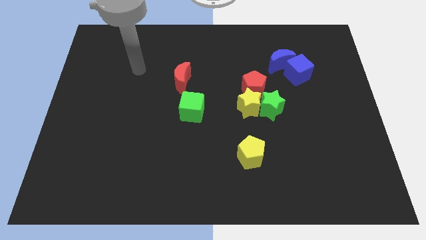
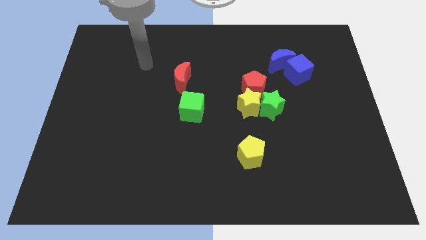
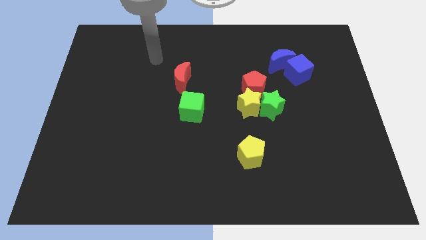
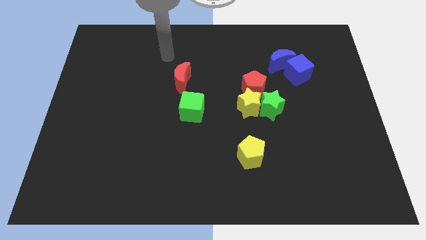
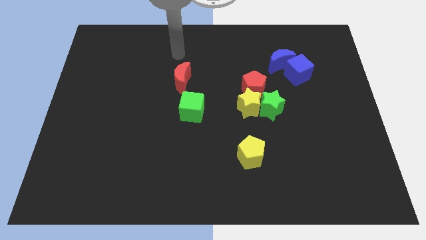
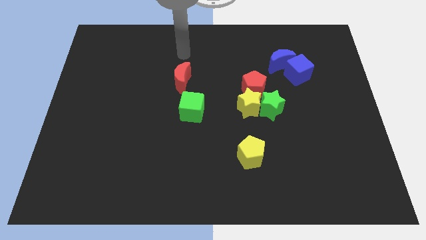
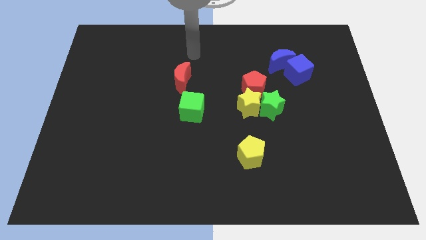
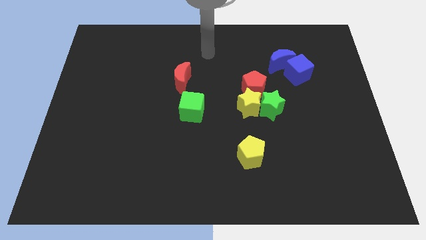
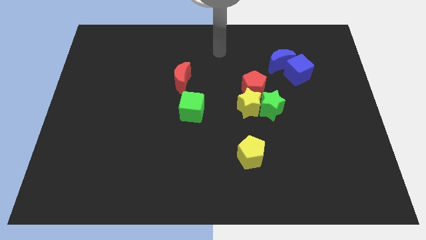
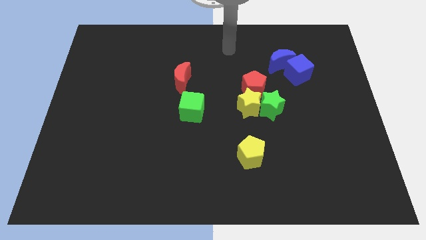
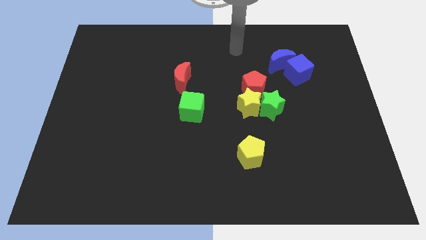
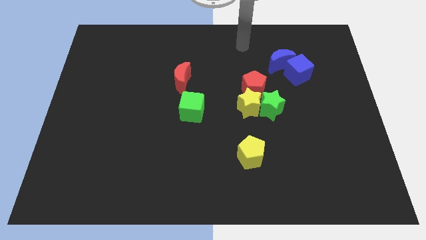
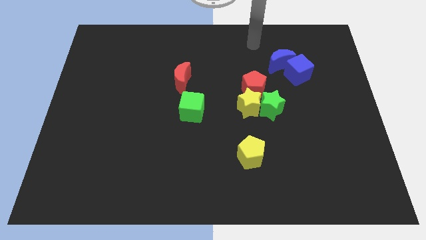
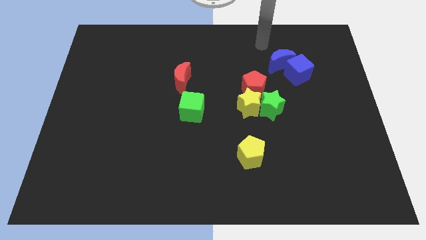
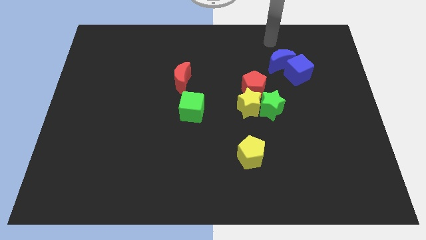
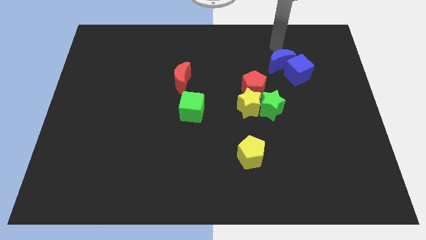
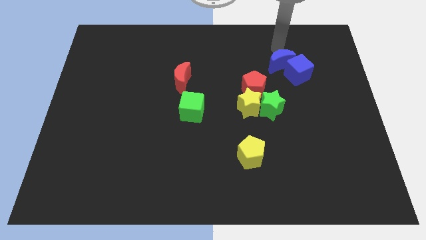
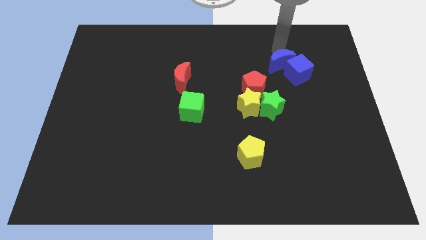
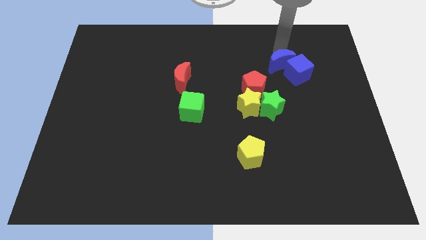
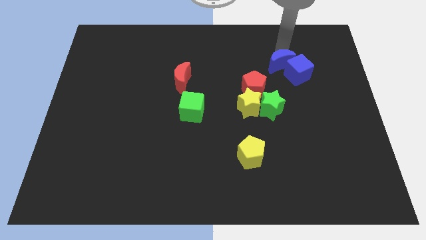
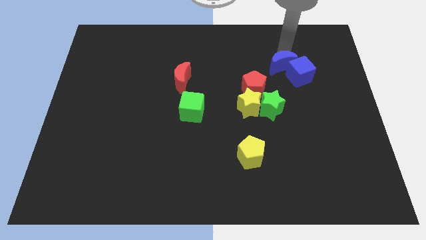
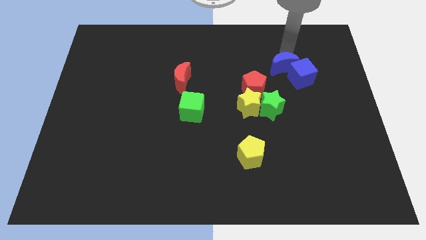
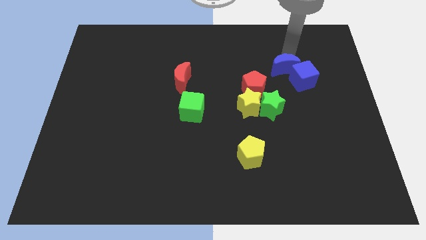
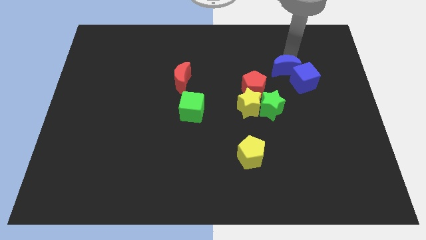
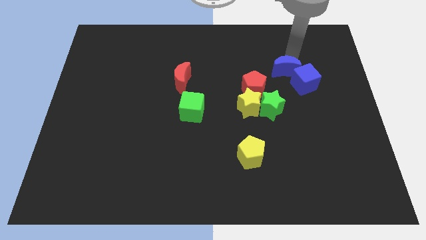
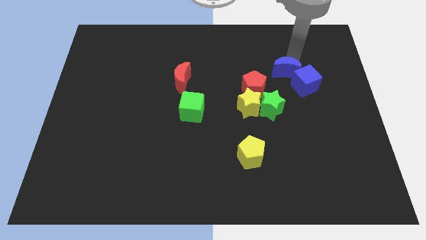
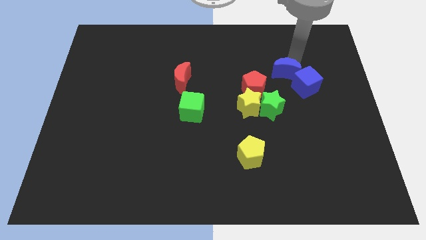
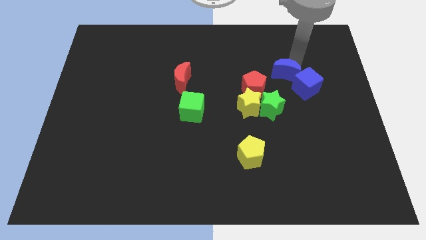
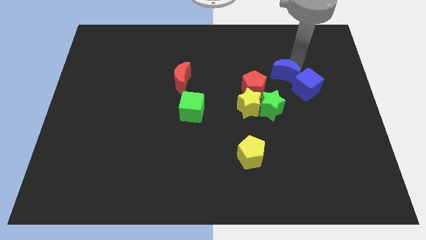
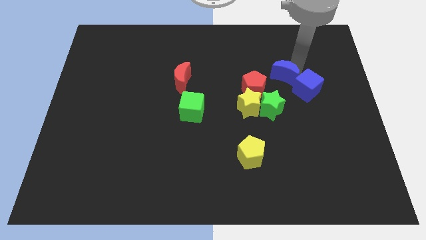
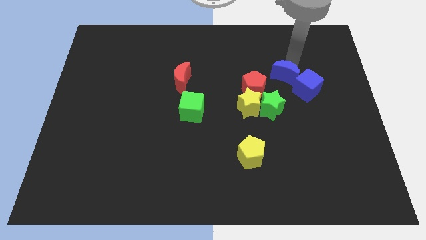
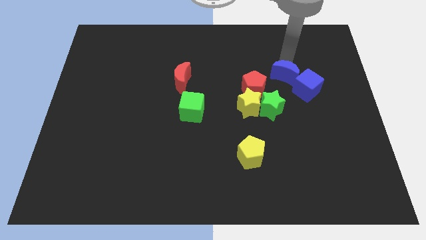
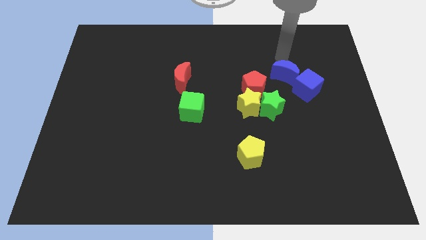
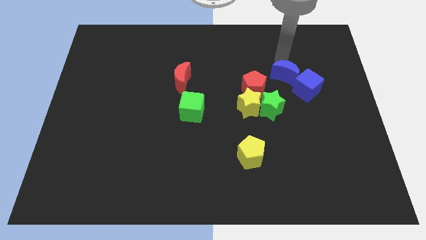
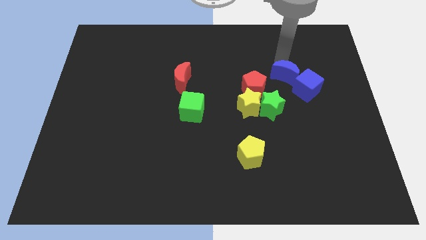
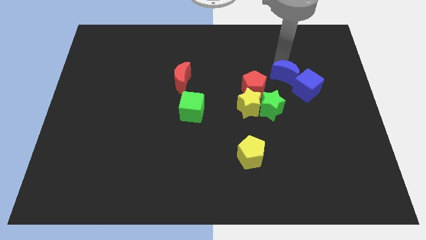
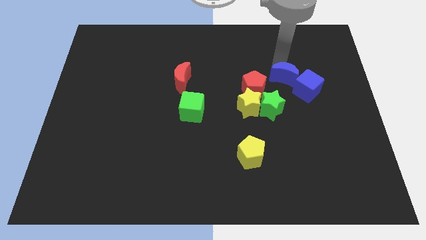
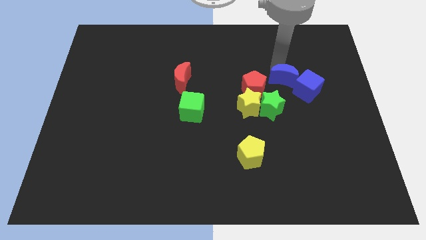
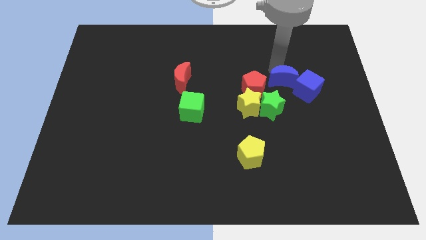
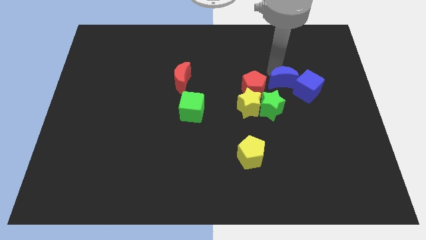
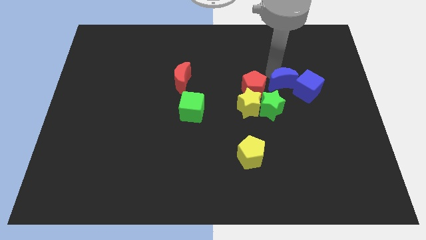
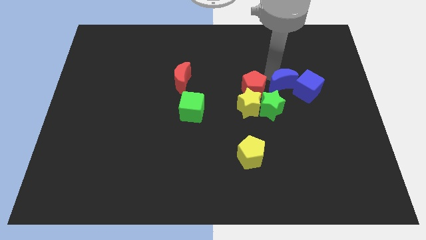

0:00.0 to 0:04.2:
slightly push the blue moon downwards

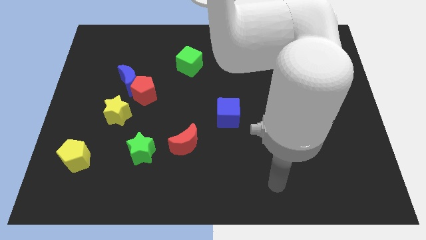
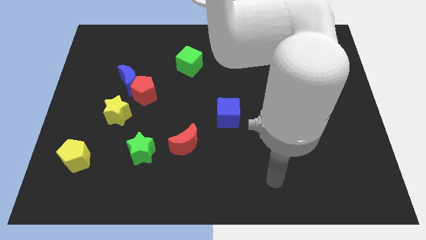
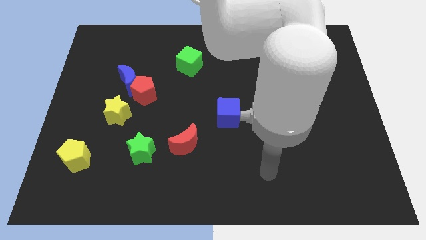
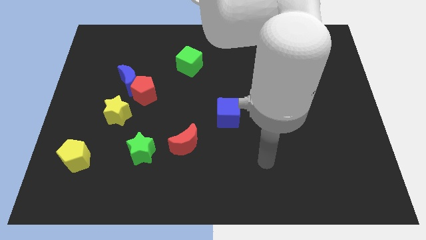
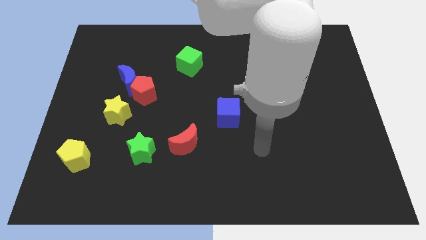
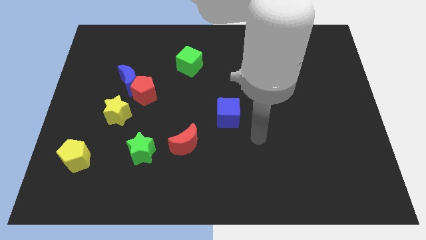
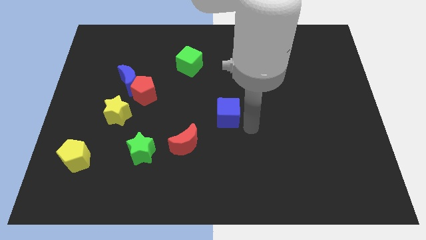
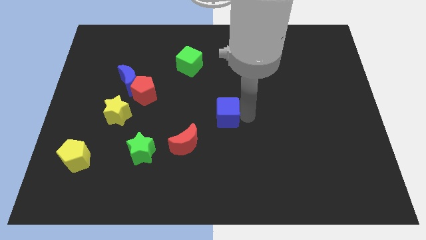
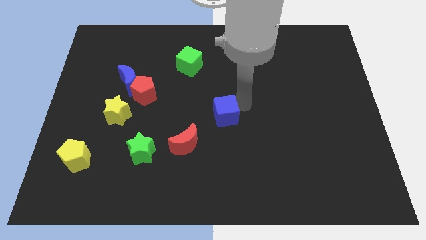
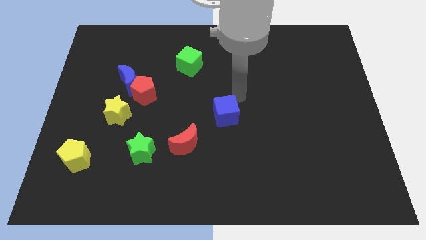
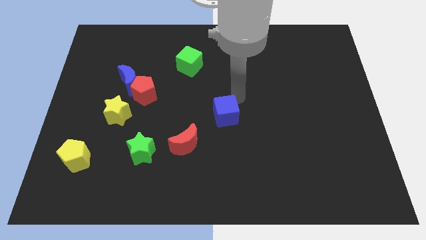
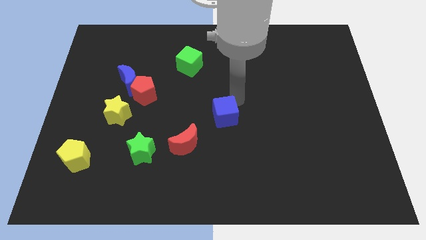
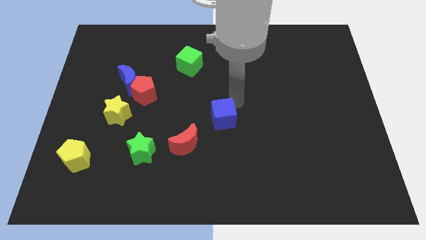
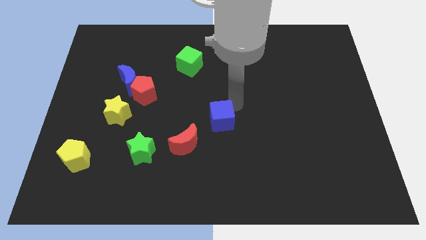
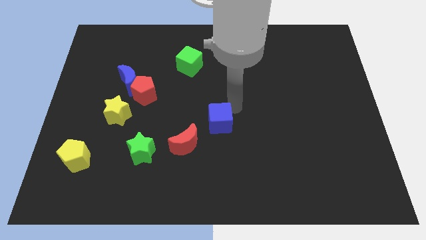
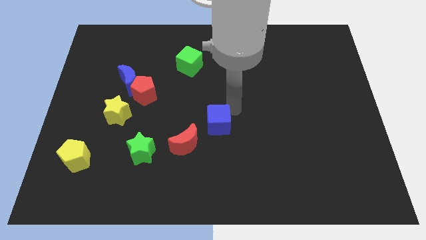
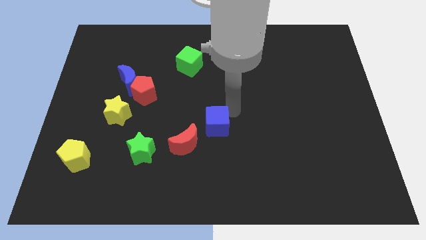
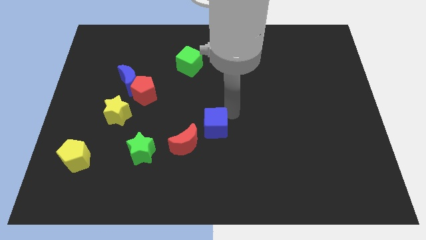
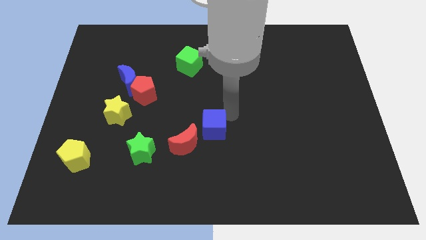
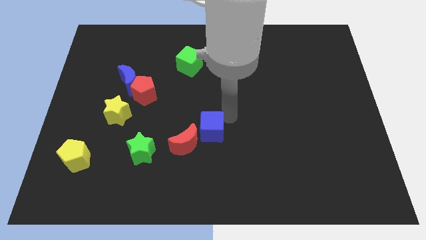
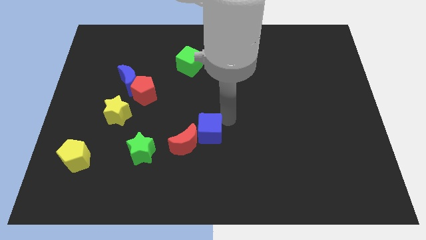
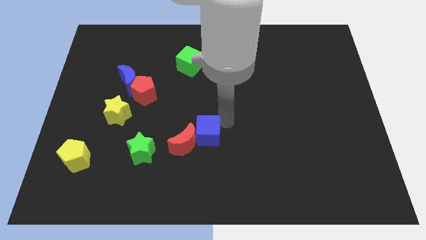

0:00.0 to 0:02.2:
move the blue cube slightly down and left diagonally

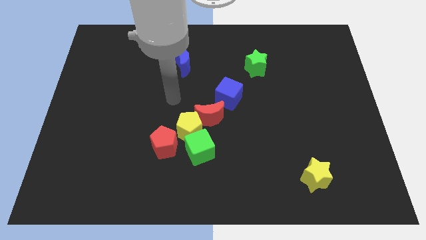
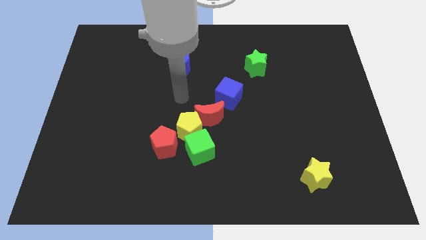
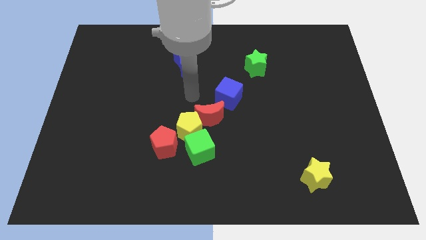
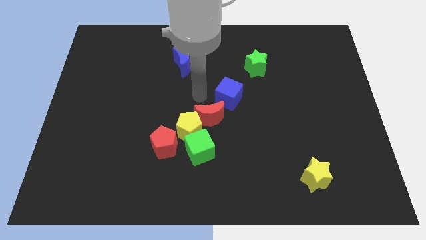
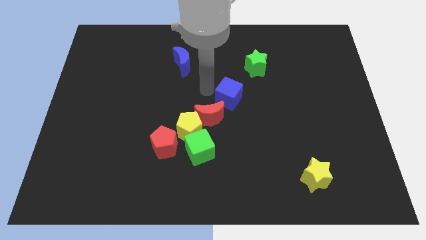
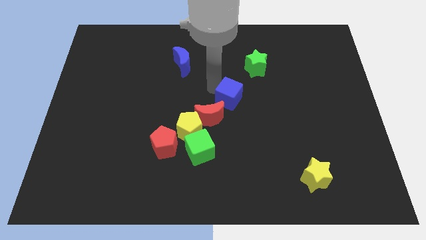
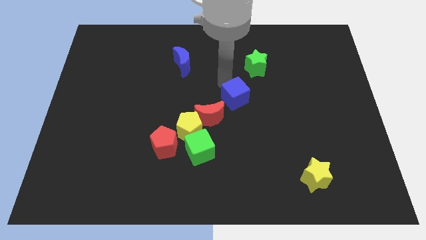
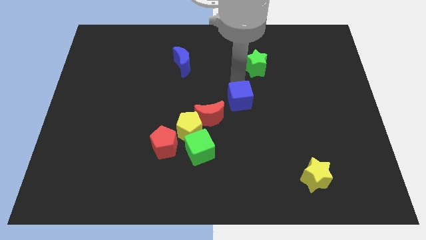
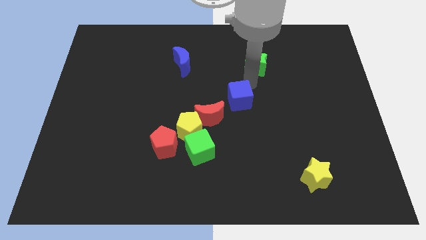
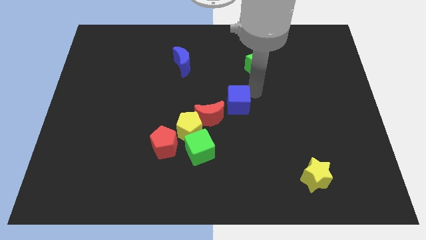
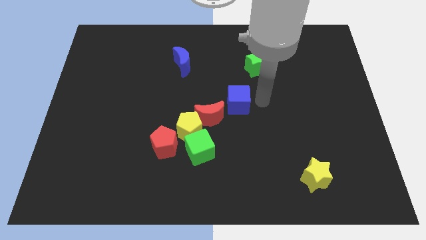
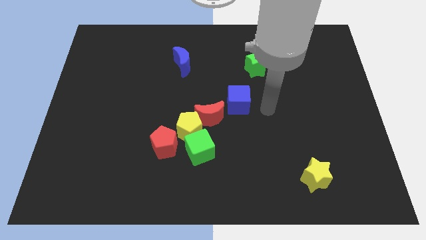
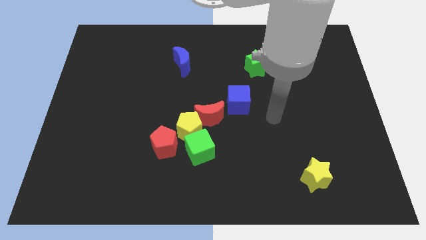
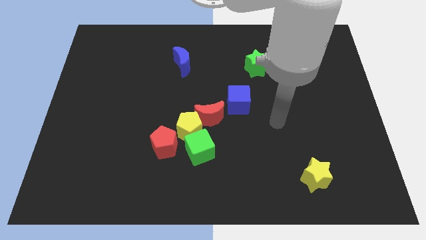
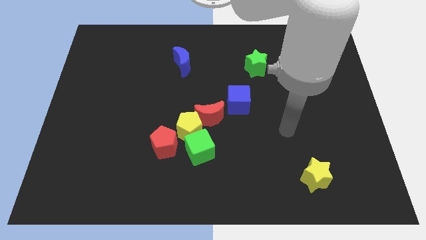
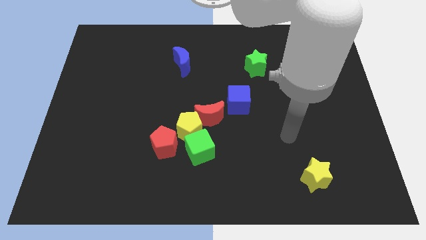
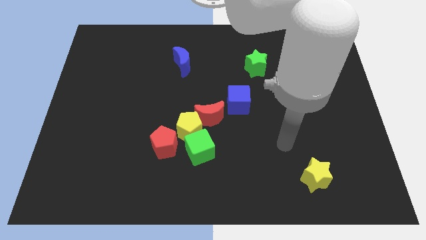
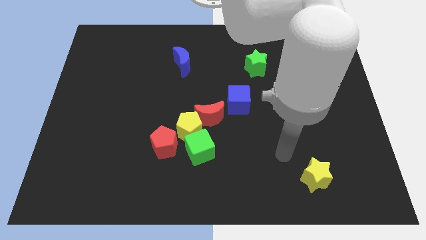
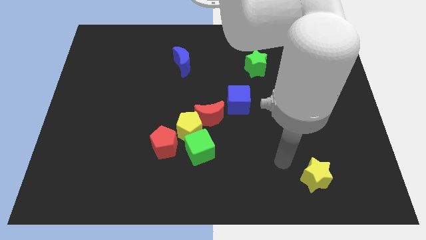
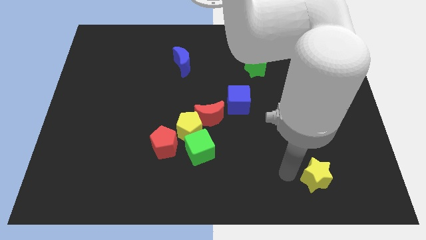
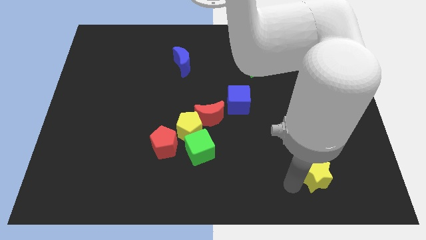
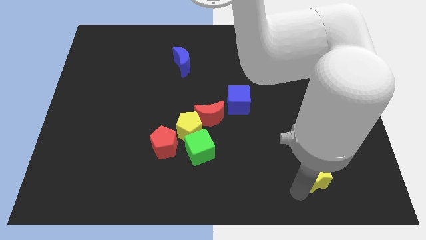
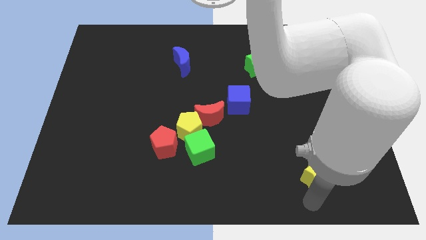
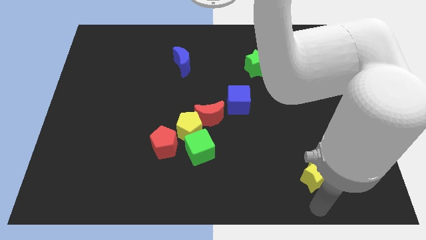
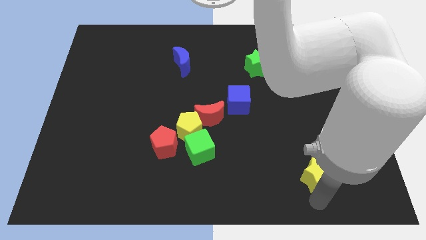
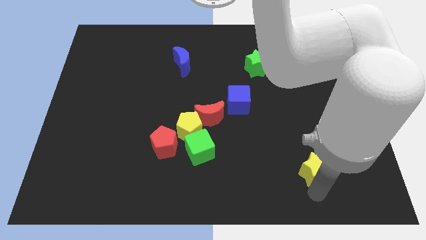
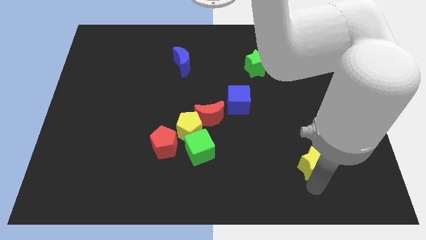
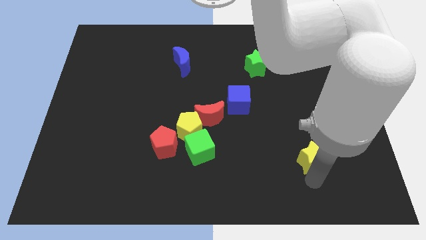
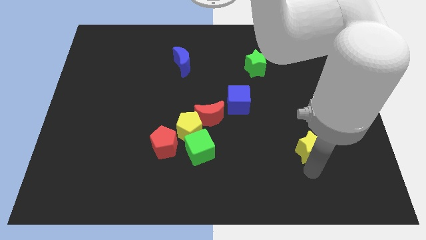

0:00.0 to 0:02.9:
slightly push the yellow star up
